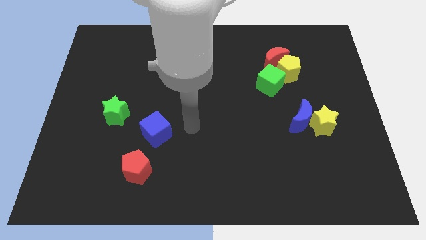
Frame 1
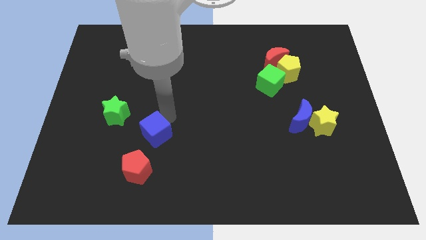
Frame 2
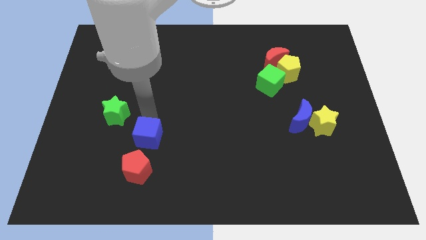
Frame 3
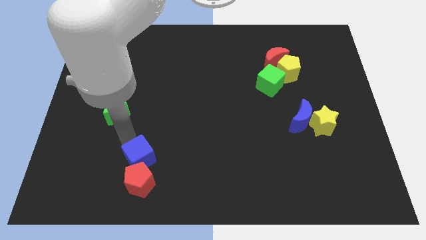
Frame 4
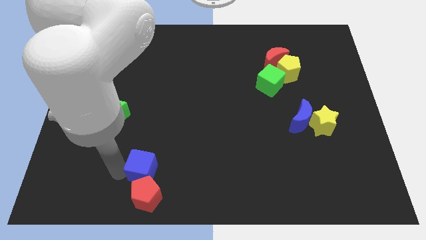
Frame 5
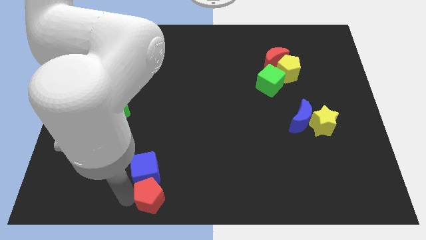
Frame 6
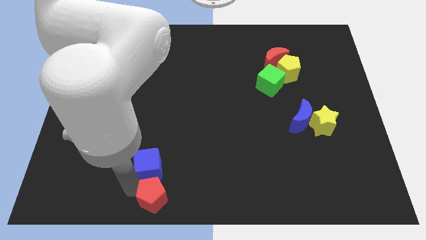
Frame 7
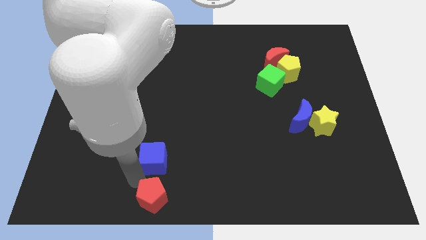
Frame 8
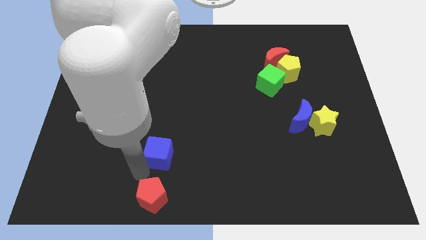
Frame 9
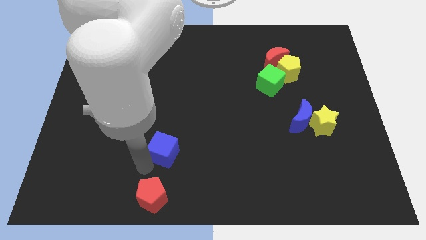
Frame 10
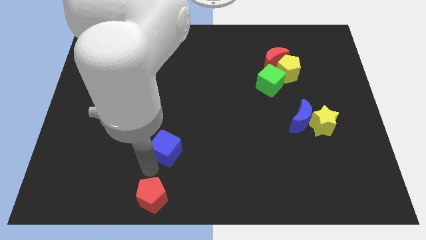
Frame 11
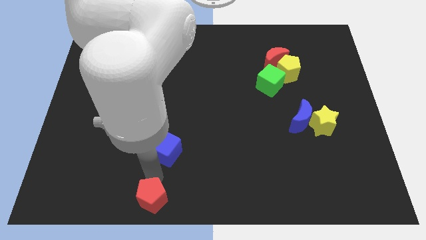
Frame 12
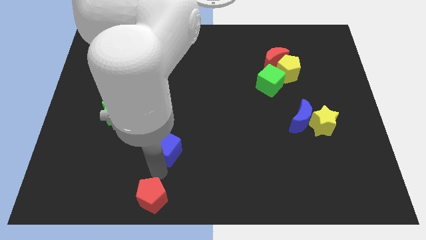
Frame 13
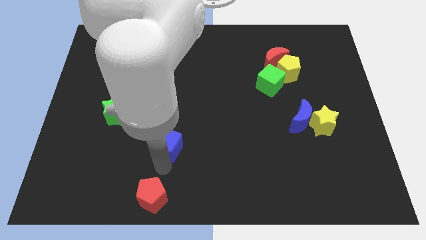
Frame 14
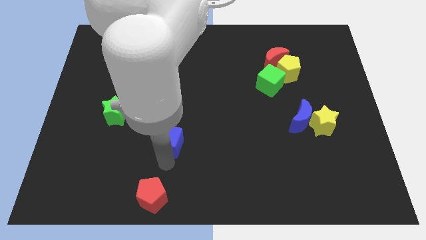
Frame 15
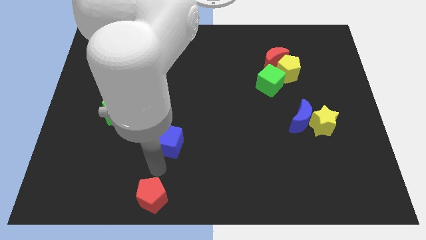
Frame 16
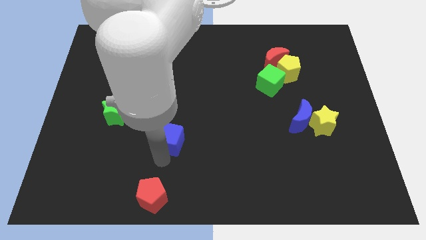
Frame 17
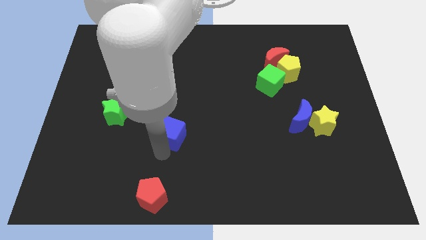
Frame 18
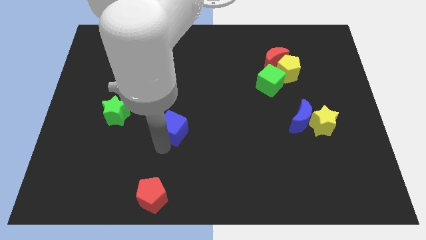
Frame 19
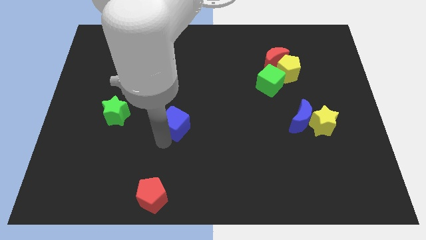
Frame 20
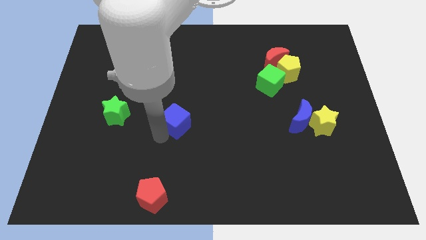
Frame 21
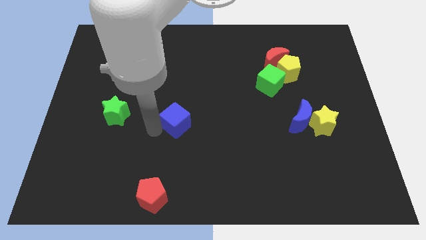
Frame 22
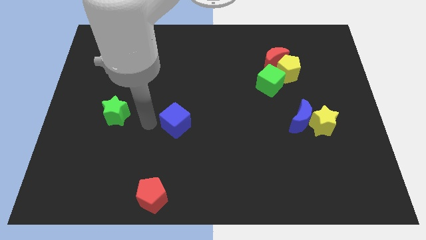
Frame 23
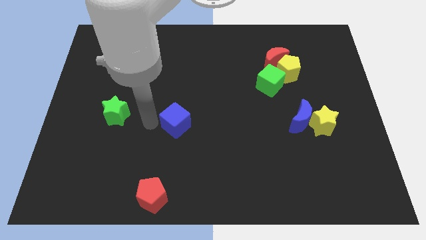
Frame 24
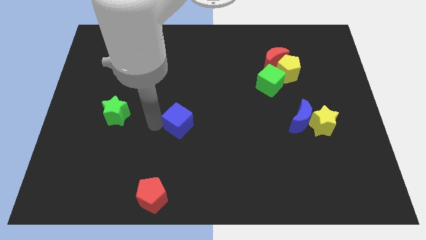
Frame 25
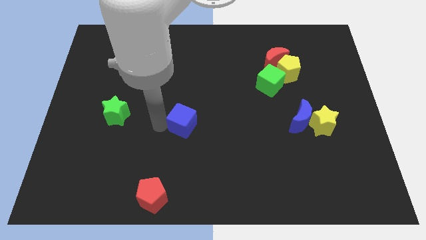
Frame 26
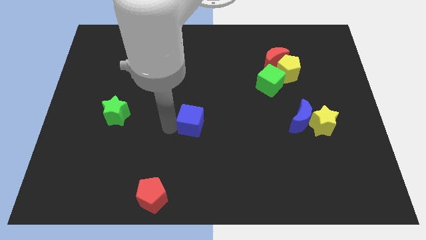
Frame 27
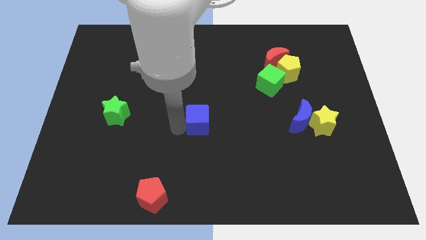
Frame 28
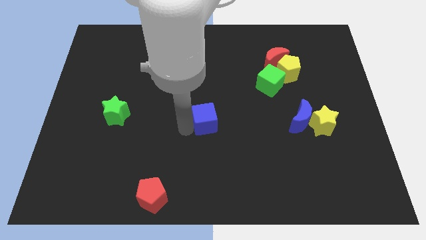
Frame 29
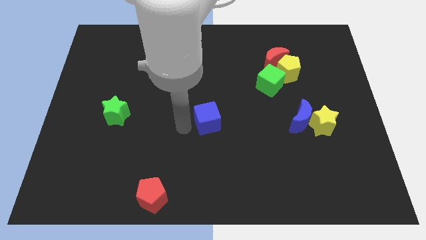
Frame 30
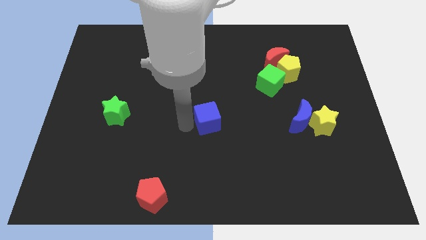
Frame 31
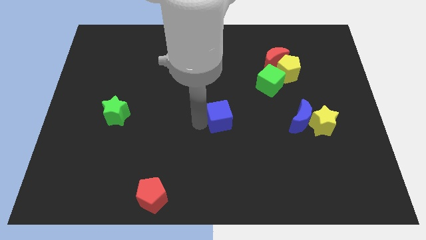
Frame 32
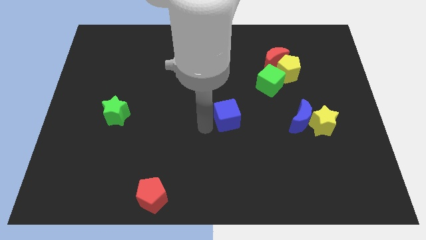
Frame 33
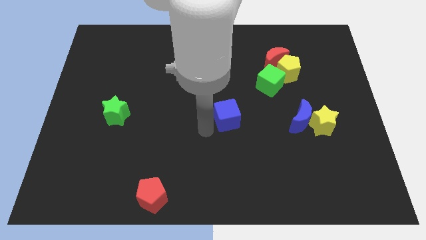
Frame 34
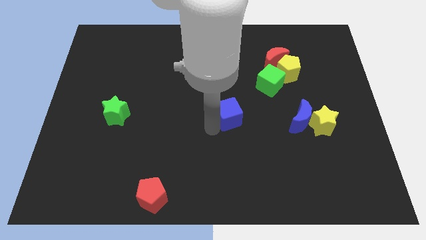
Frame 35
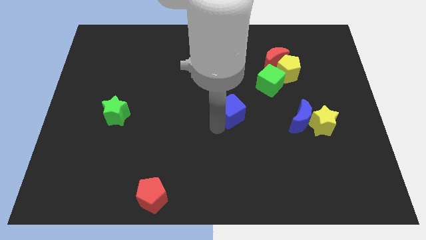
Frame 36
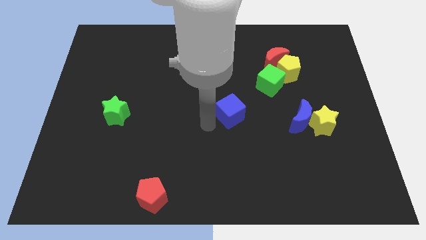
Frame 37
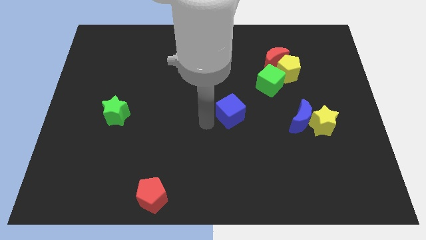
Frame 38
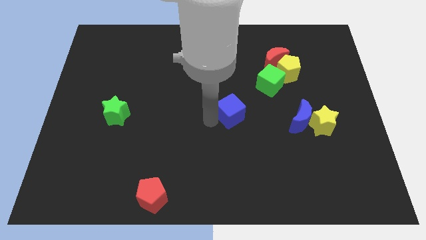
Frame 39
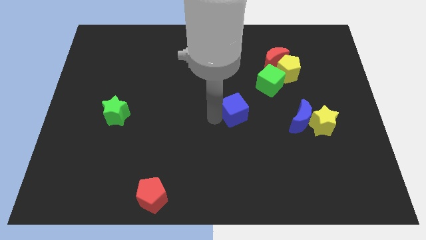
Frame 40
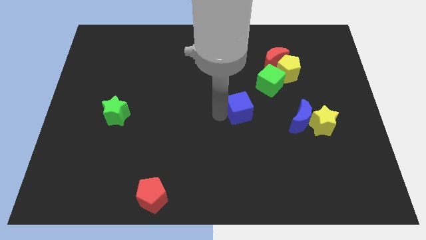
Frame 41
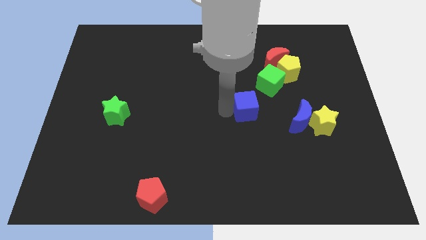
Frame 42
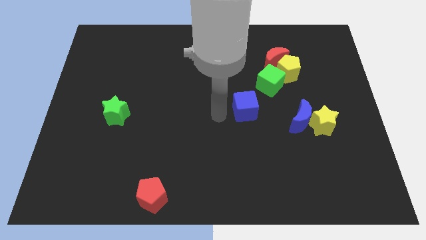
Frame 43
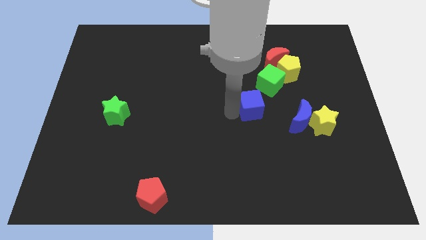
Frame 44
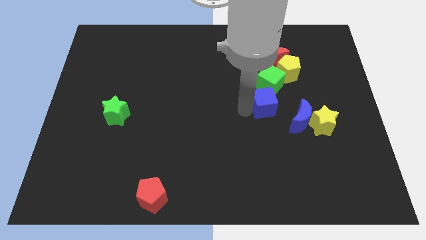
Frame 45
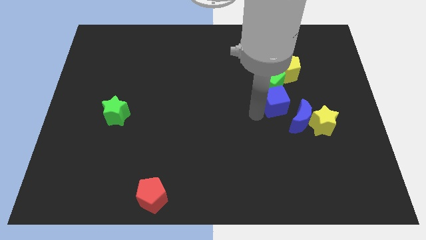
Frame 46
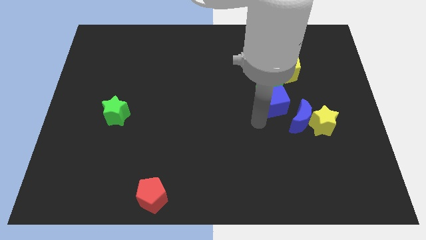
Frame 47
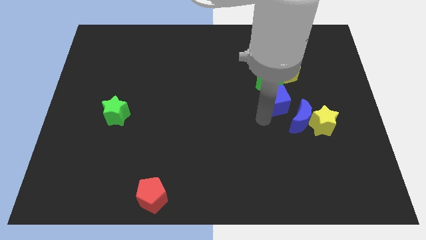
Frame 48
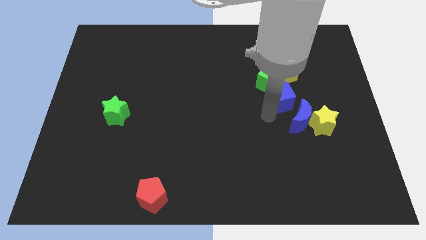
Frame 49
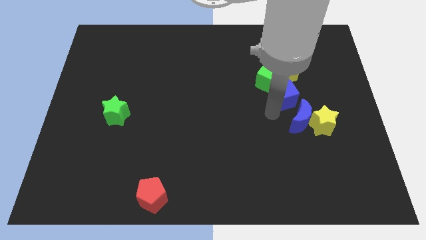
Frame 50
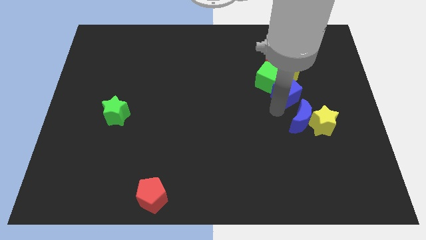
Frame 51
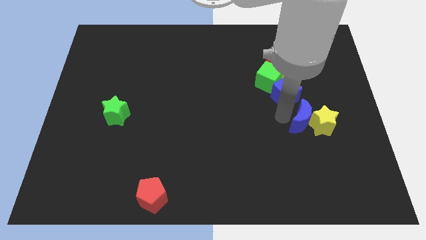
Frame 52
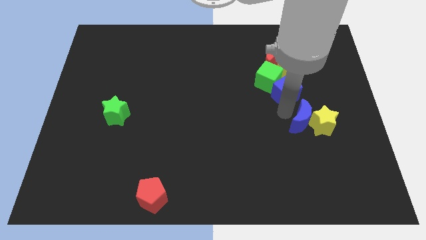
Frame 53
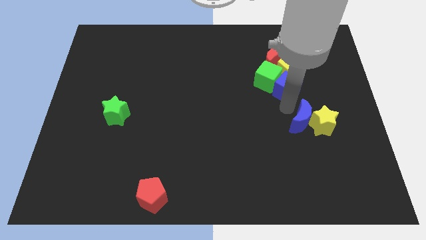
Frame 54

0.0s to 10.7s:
push the blue cube close to the yellow pentagon

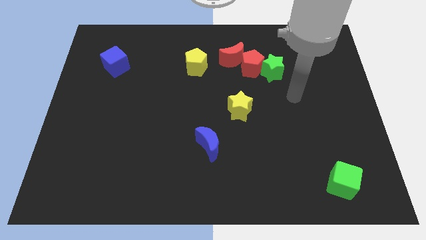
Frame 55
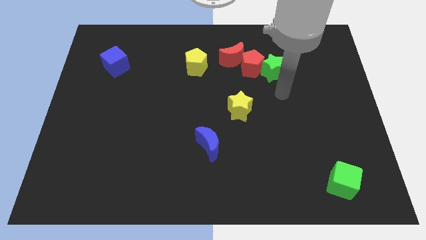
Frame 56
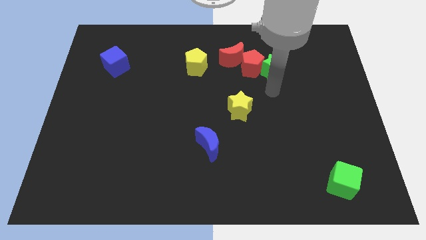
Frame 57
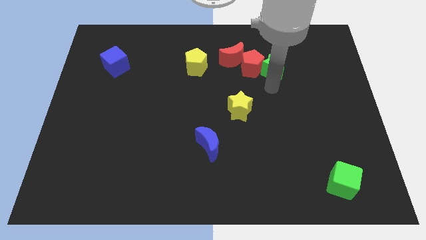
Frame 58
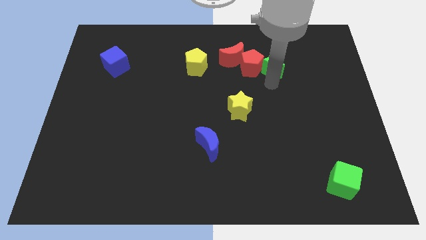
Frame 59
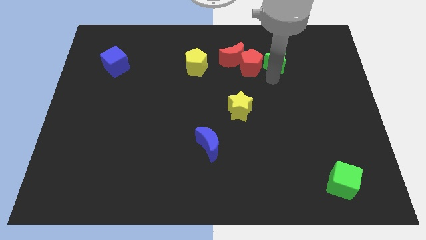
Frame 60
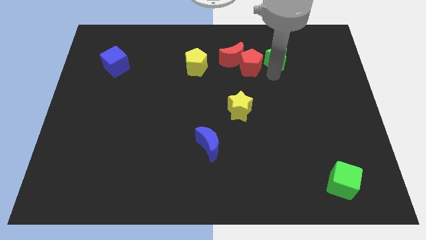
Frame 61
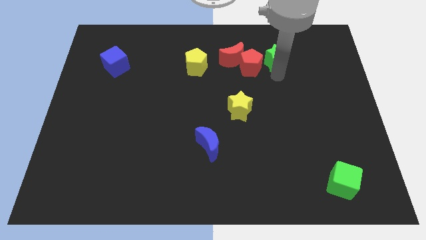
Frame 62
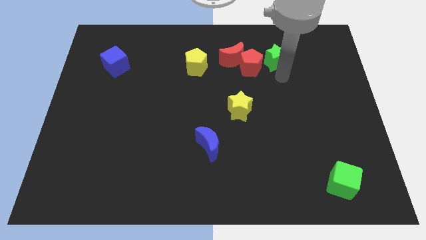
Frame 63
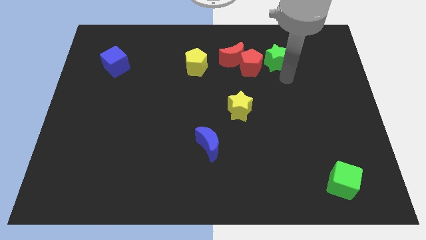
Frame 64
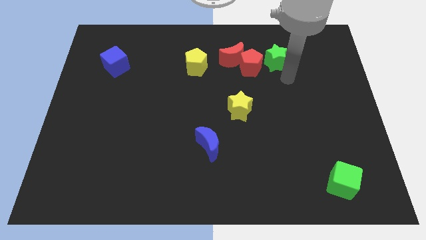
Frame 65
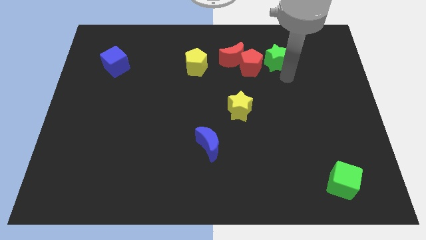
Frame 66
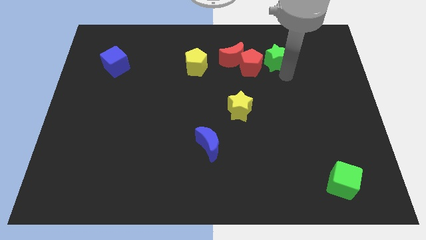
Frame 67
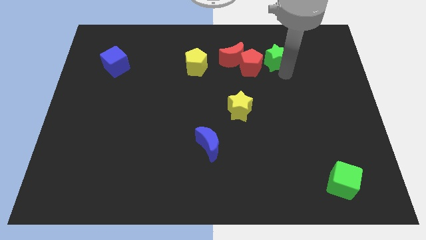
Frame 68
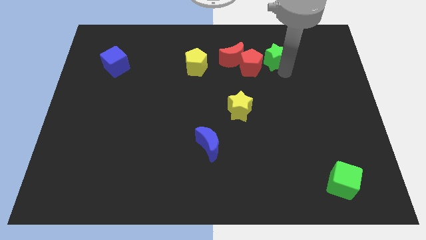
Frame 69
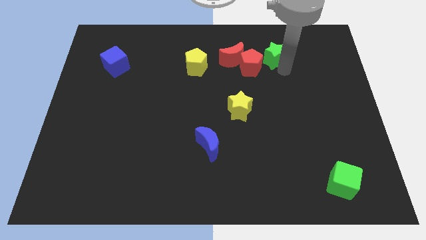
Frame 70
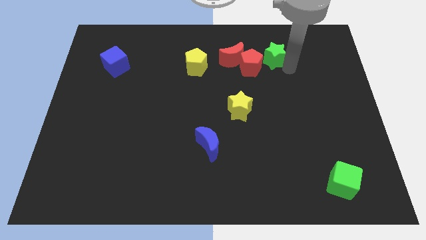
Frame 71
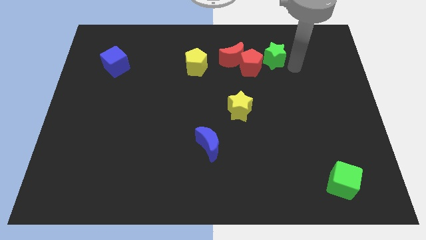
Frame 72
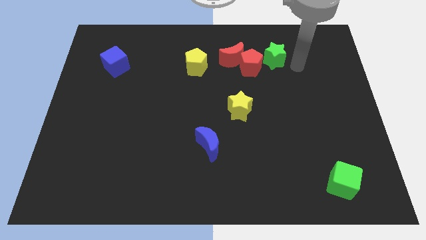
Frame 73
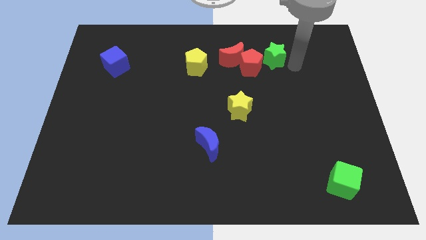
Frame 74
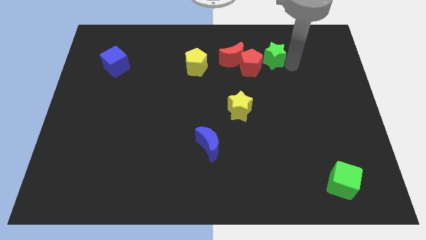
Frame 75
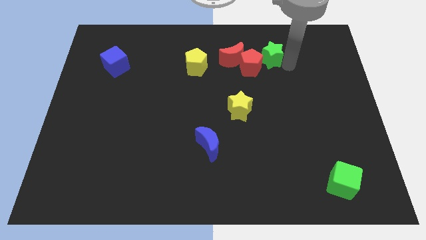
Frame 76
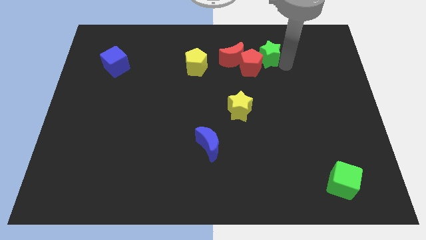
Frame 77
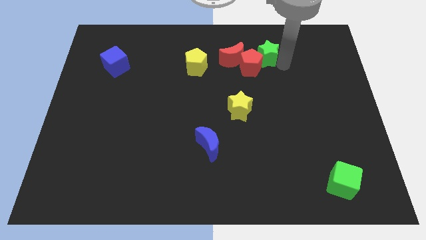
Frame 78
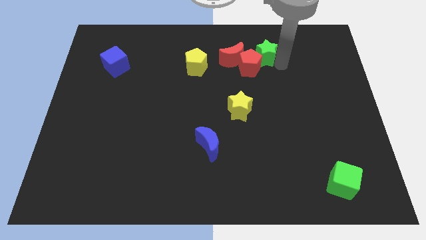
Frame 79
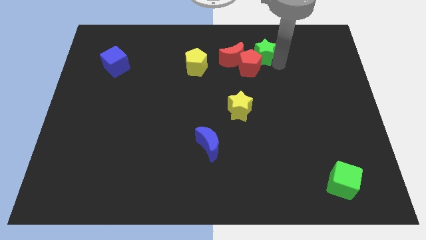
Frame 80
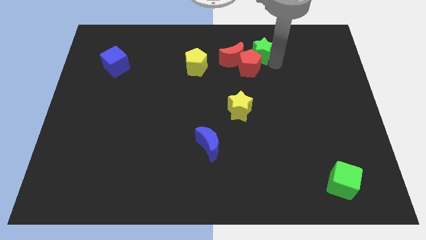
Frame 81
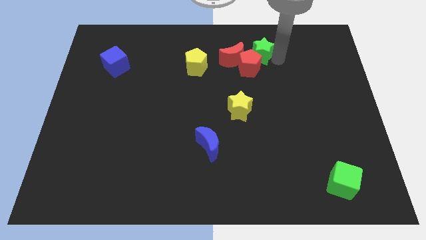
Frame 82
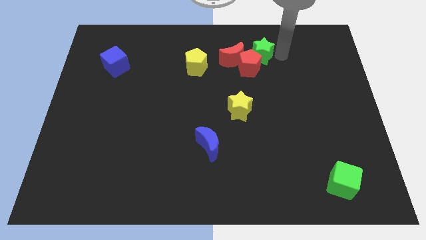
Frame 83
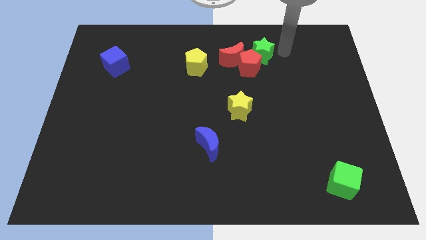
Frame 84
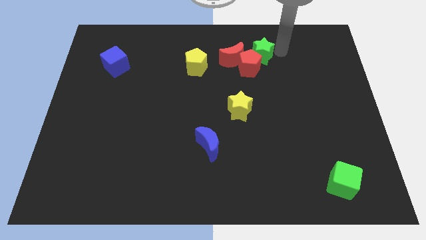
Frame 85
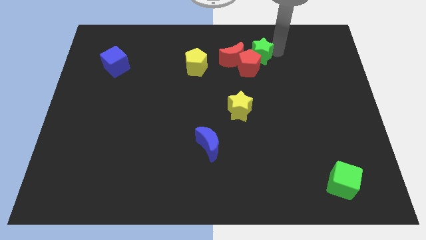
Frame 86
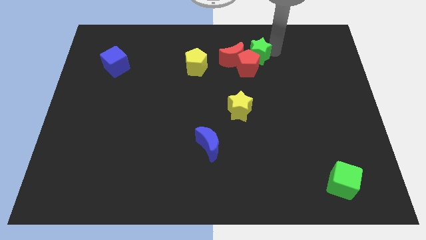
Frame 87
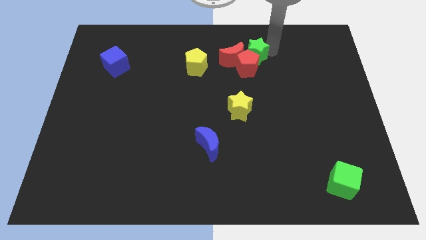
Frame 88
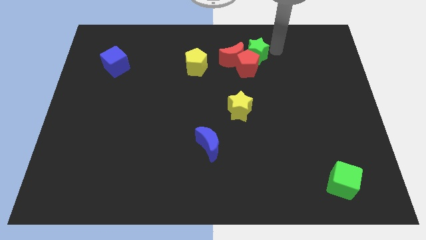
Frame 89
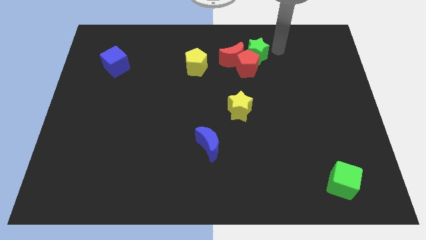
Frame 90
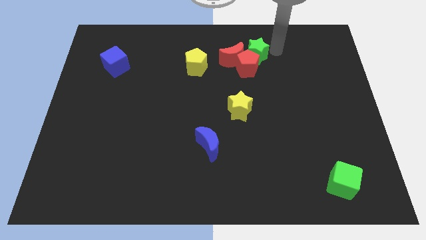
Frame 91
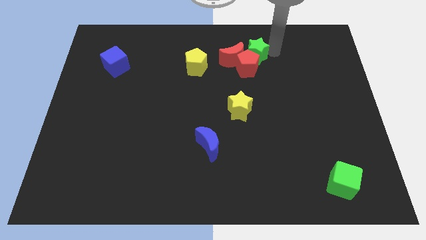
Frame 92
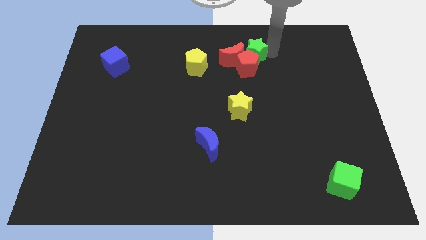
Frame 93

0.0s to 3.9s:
move the green star towards the red moon
